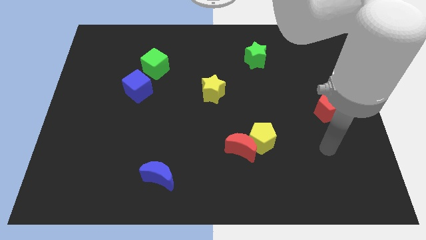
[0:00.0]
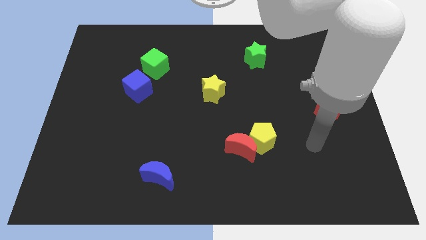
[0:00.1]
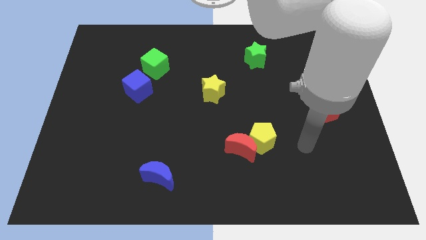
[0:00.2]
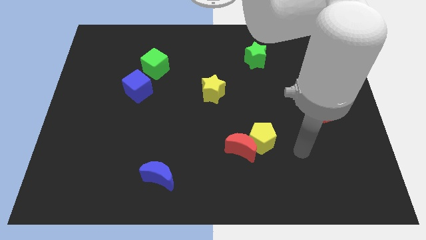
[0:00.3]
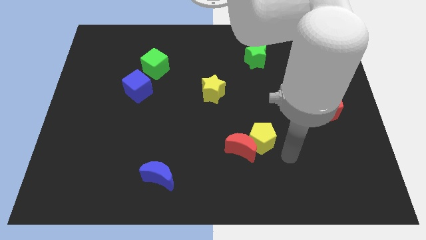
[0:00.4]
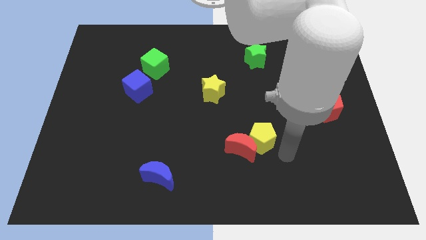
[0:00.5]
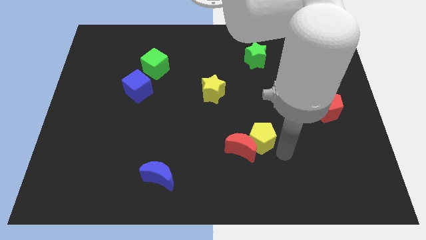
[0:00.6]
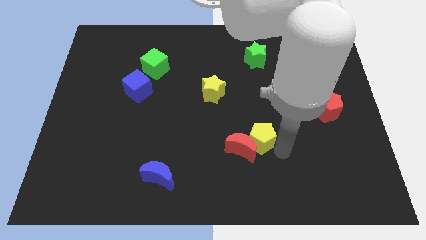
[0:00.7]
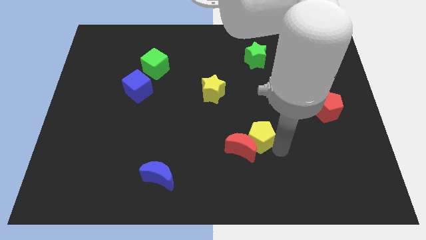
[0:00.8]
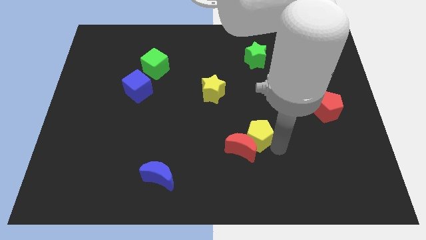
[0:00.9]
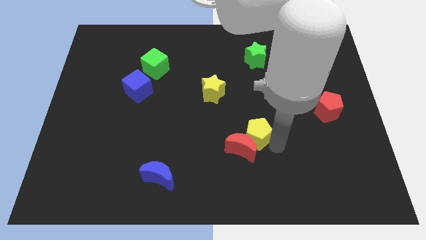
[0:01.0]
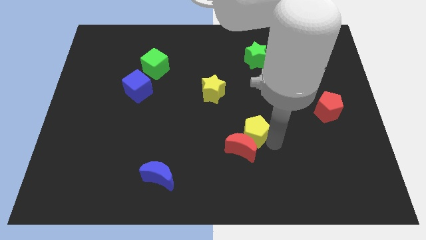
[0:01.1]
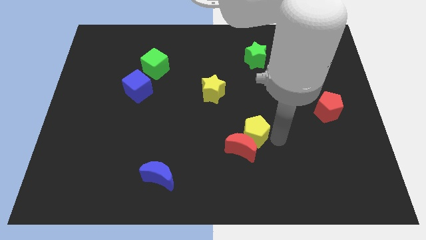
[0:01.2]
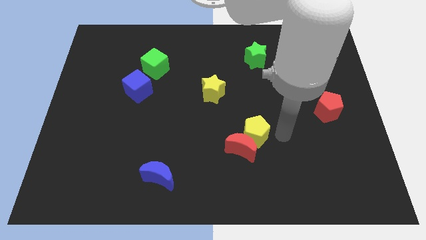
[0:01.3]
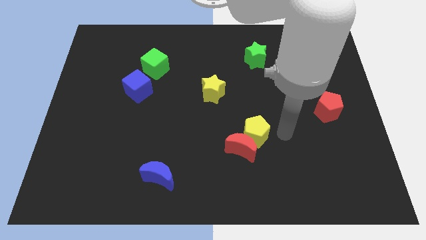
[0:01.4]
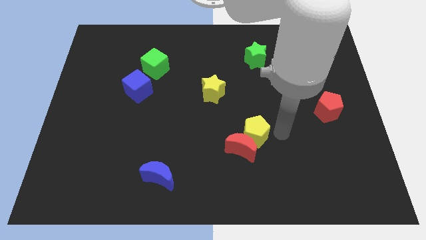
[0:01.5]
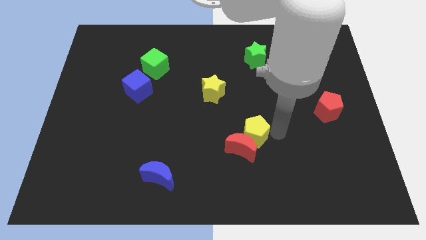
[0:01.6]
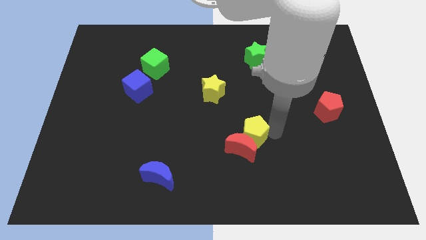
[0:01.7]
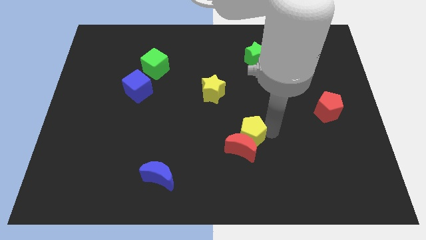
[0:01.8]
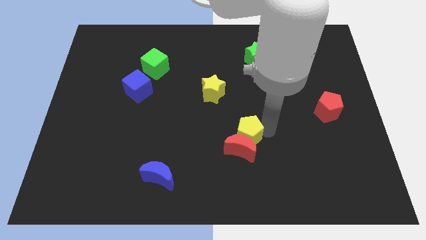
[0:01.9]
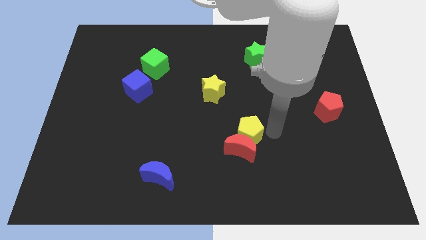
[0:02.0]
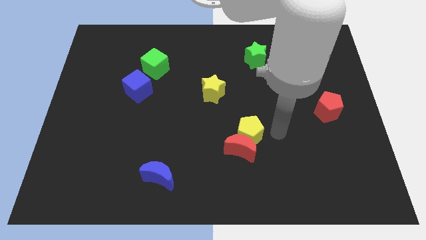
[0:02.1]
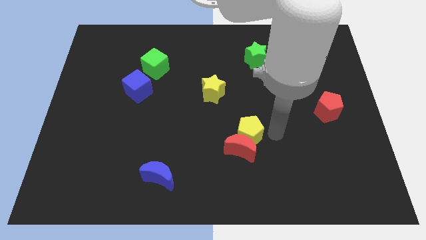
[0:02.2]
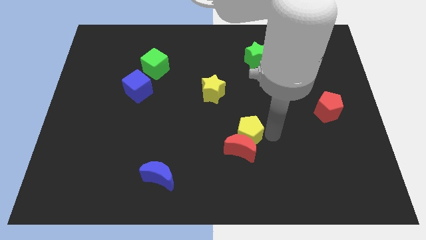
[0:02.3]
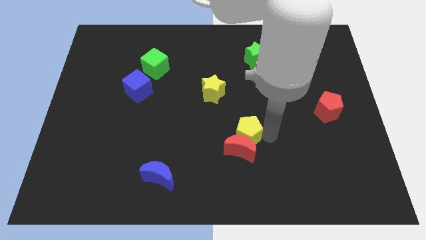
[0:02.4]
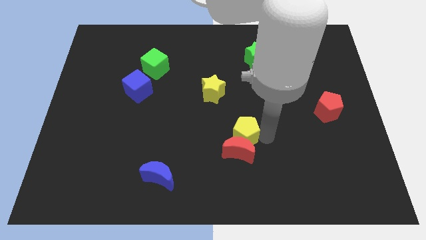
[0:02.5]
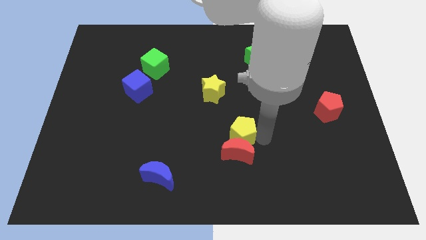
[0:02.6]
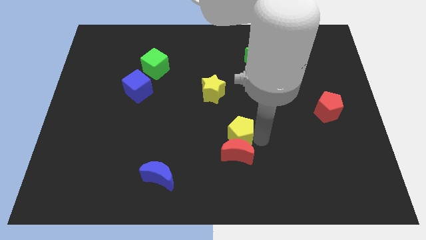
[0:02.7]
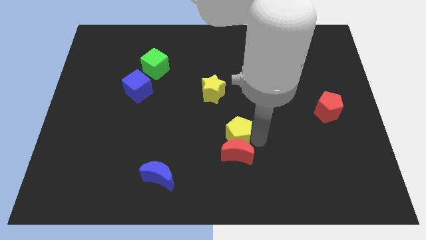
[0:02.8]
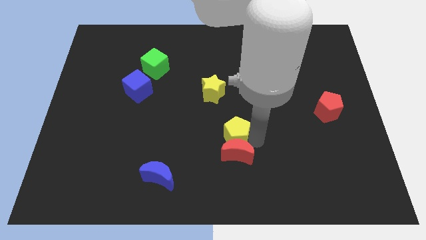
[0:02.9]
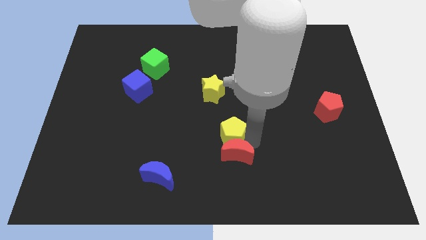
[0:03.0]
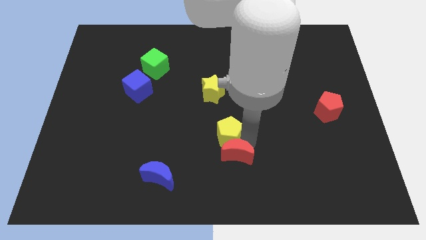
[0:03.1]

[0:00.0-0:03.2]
slide the yellow pentagon left slightly

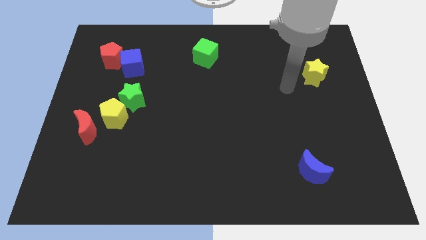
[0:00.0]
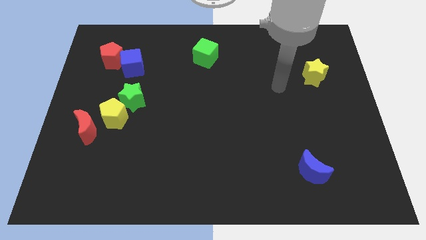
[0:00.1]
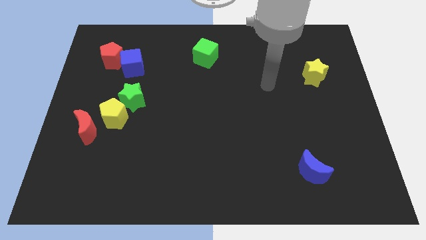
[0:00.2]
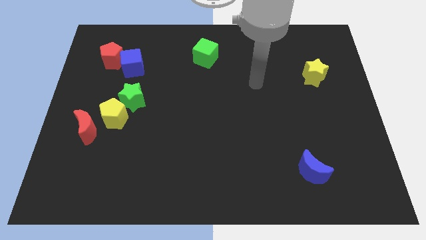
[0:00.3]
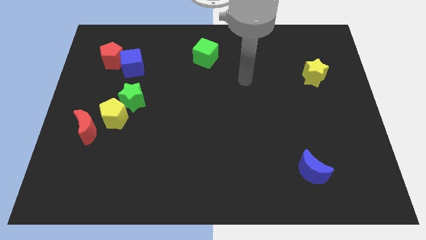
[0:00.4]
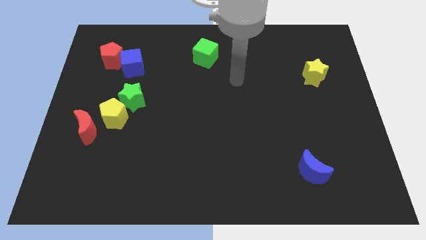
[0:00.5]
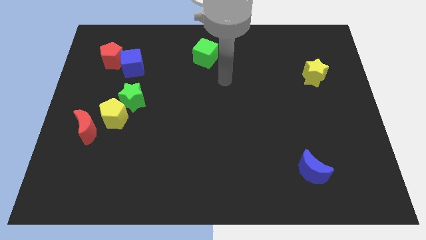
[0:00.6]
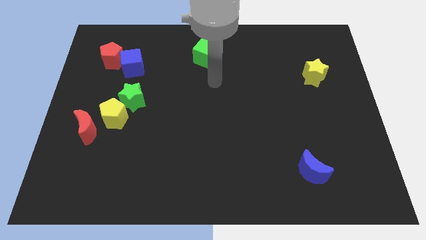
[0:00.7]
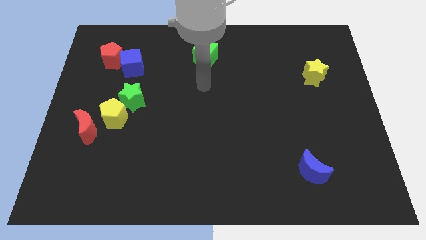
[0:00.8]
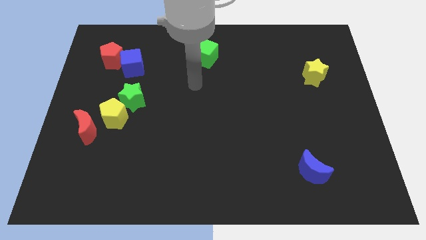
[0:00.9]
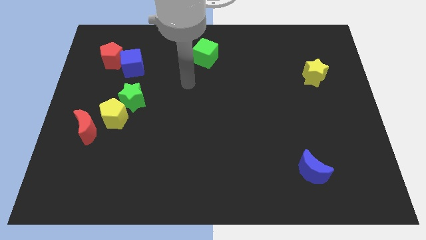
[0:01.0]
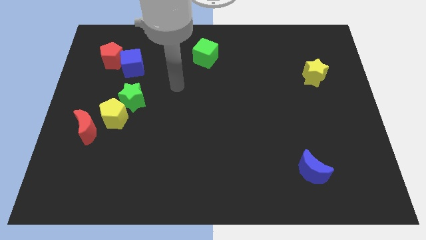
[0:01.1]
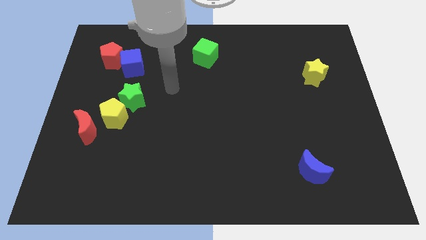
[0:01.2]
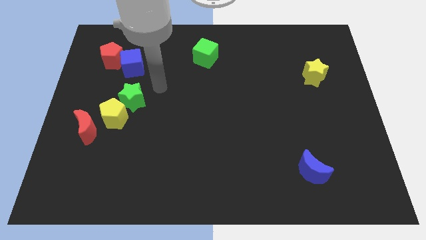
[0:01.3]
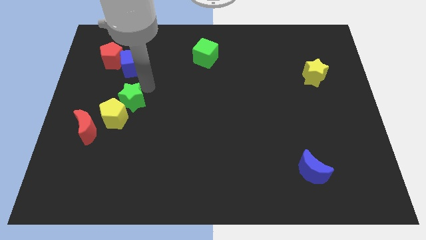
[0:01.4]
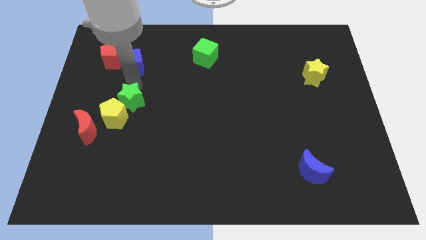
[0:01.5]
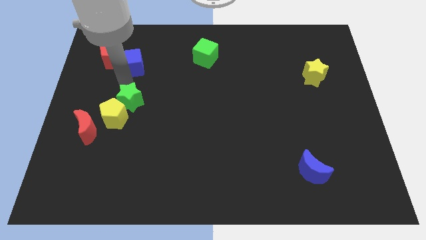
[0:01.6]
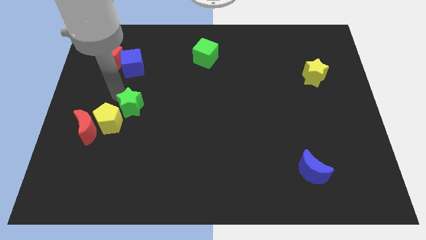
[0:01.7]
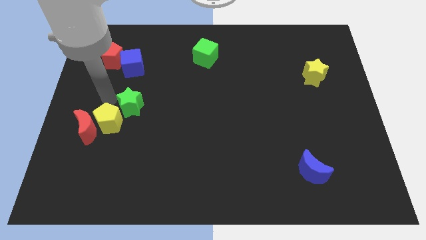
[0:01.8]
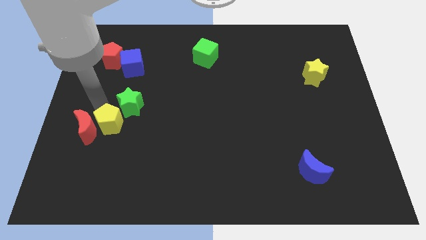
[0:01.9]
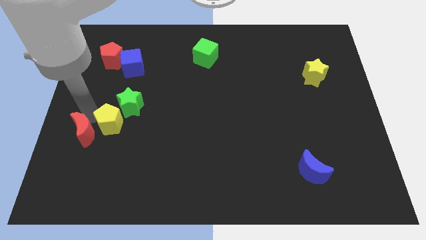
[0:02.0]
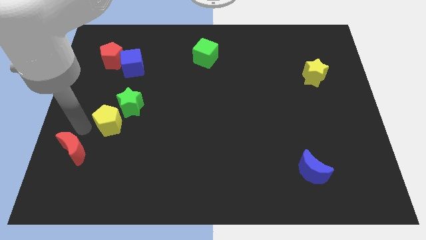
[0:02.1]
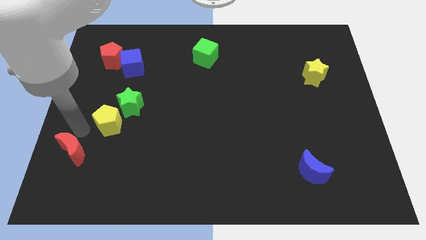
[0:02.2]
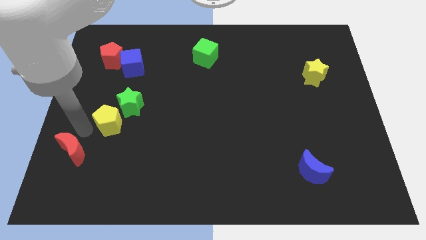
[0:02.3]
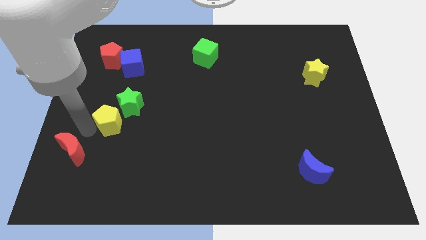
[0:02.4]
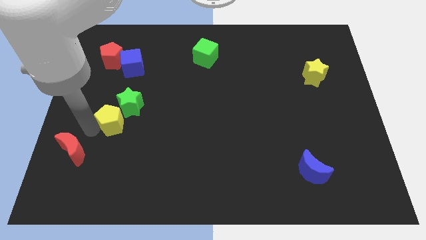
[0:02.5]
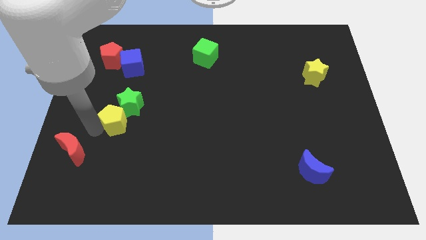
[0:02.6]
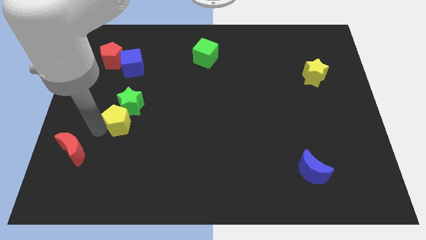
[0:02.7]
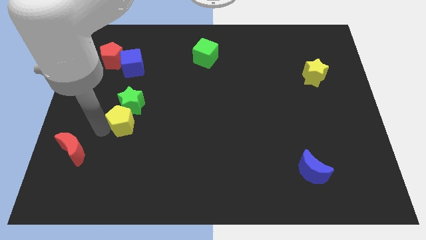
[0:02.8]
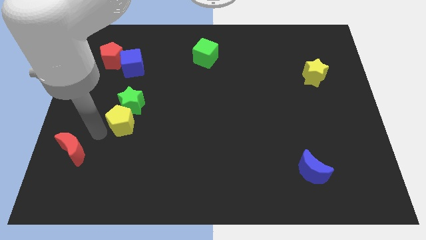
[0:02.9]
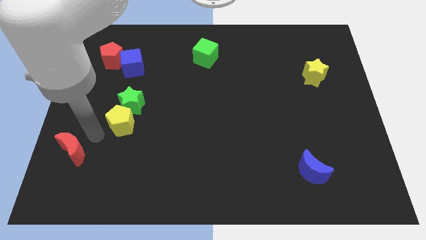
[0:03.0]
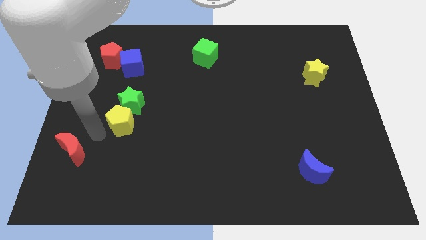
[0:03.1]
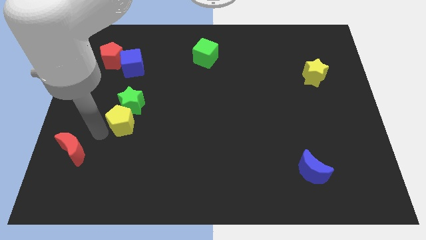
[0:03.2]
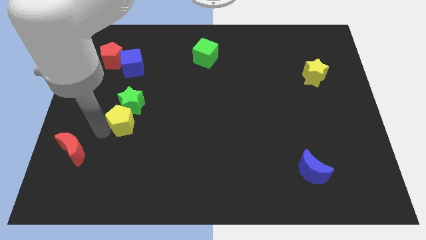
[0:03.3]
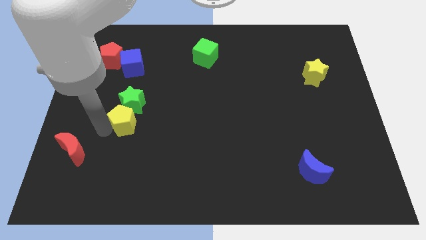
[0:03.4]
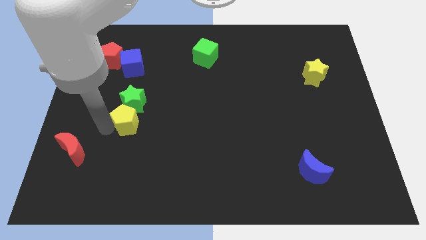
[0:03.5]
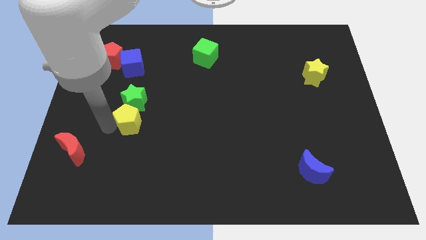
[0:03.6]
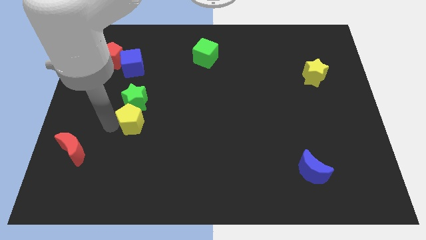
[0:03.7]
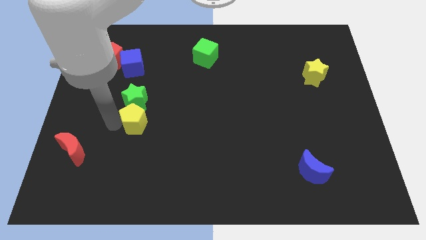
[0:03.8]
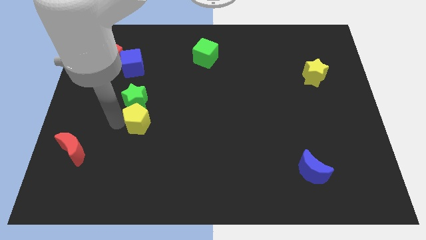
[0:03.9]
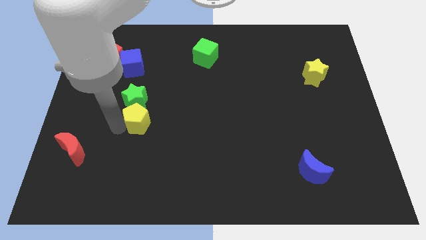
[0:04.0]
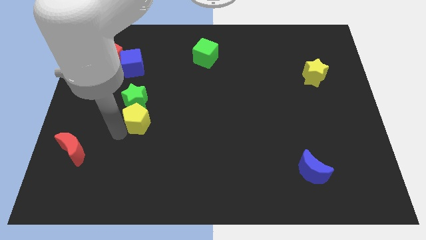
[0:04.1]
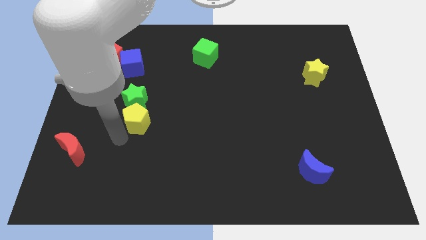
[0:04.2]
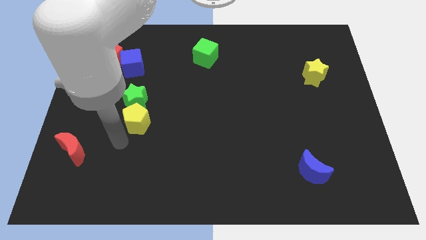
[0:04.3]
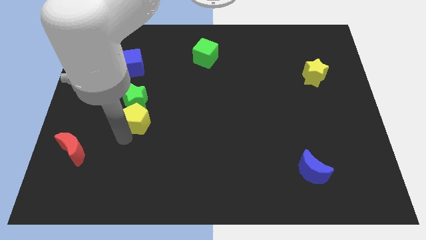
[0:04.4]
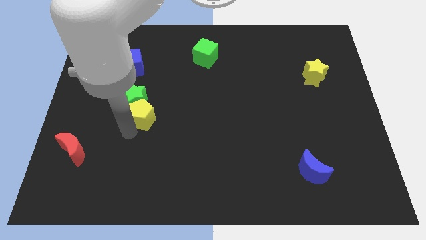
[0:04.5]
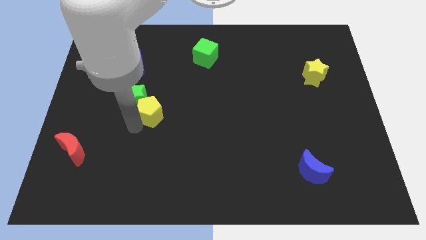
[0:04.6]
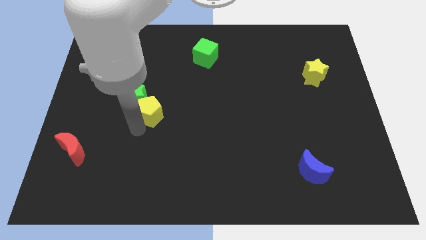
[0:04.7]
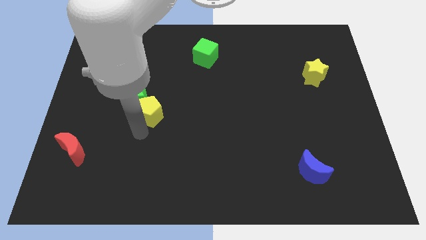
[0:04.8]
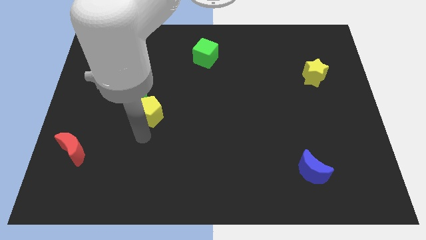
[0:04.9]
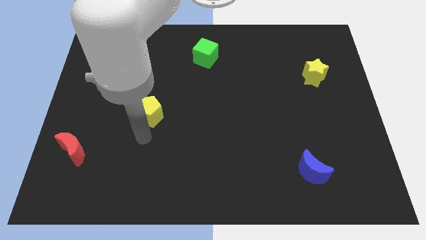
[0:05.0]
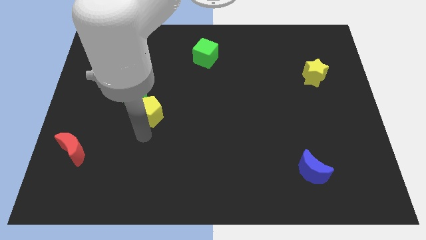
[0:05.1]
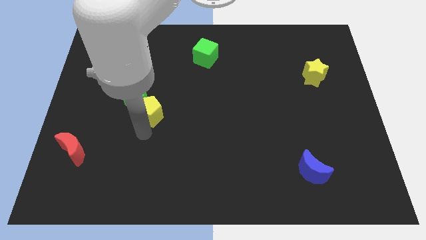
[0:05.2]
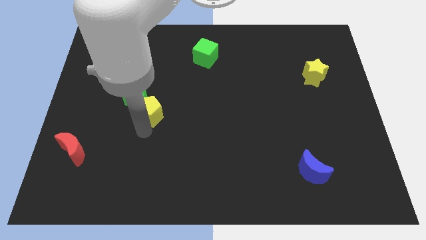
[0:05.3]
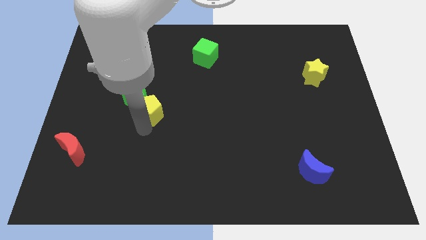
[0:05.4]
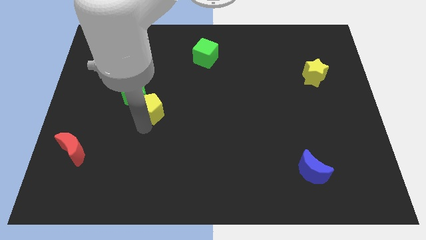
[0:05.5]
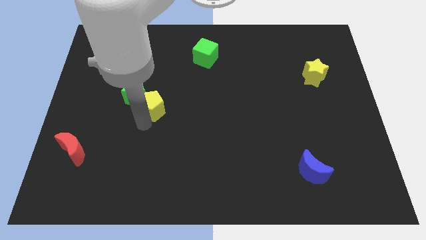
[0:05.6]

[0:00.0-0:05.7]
slightly push the yellow pentagon upwards and right
